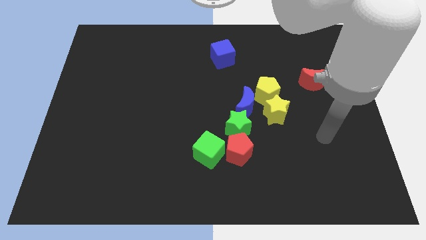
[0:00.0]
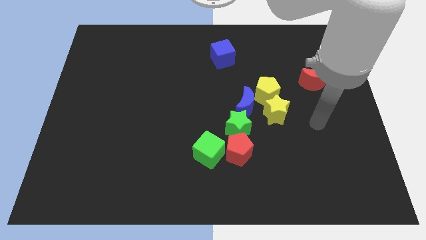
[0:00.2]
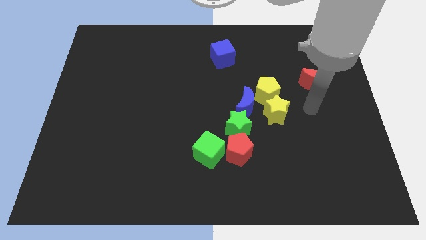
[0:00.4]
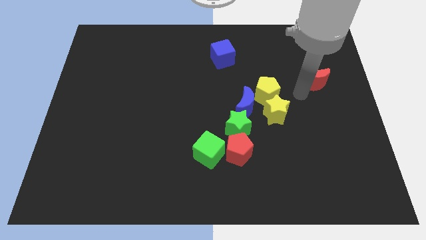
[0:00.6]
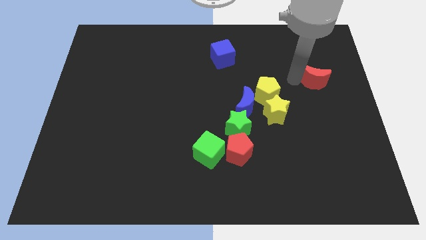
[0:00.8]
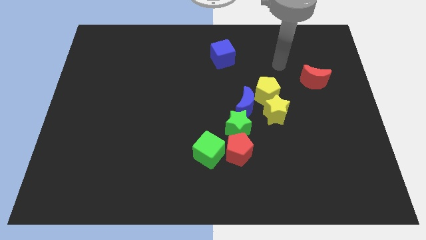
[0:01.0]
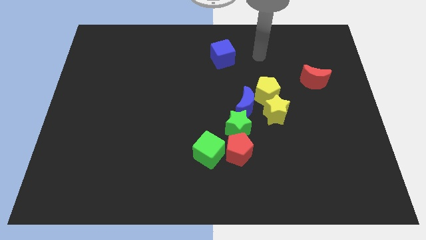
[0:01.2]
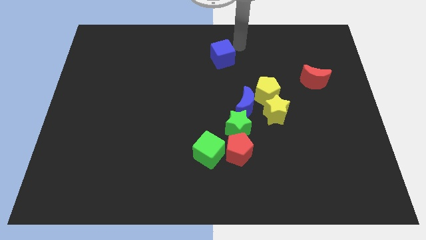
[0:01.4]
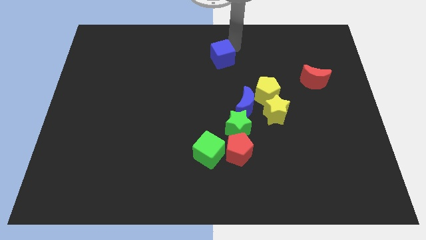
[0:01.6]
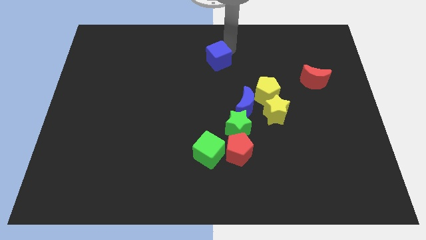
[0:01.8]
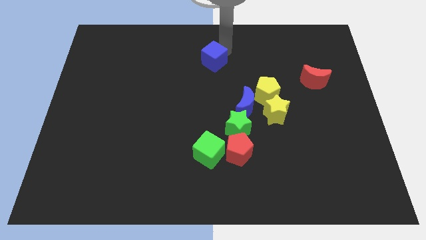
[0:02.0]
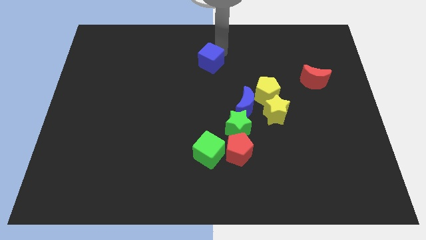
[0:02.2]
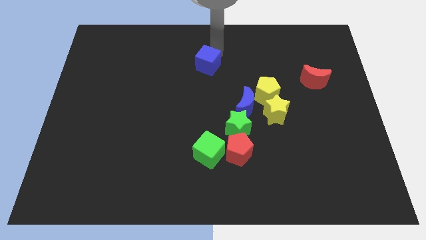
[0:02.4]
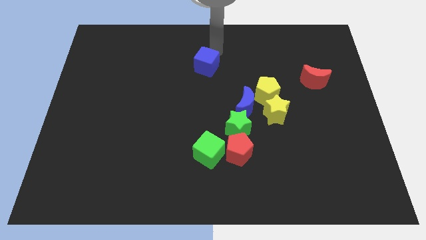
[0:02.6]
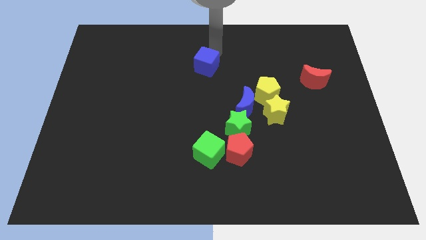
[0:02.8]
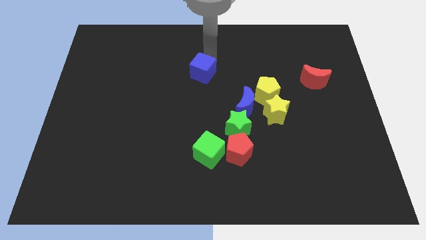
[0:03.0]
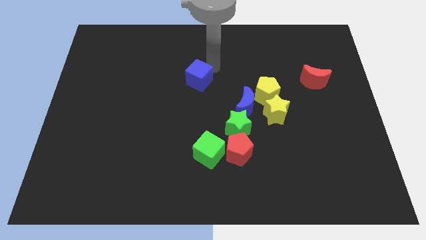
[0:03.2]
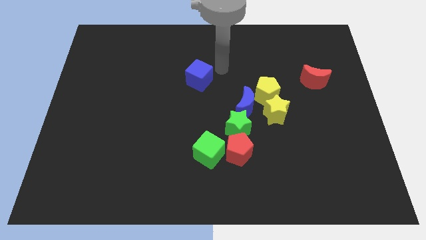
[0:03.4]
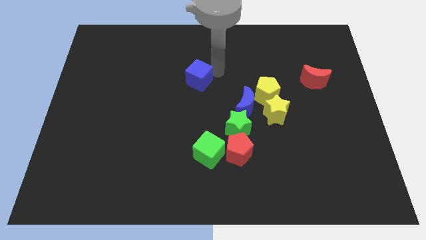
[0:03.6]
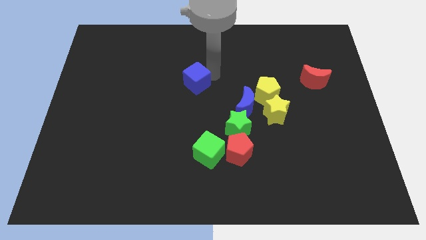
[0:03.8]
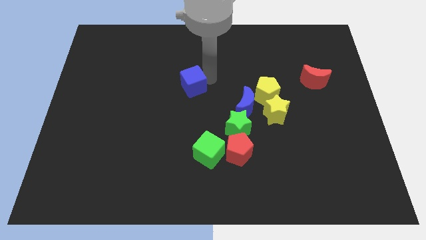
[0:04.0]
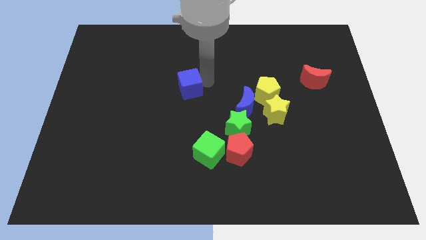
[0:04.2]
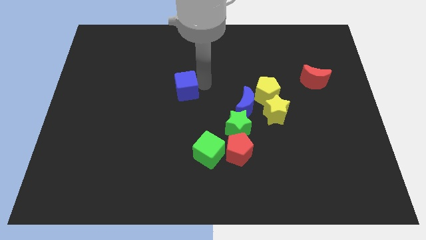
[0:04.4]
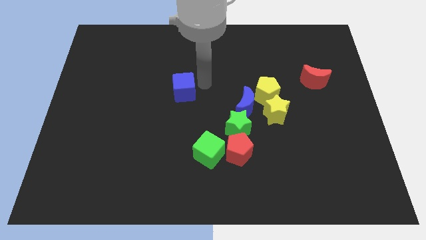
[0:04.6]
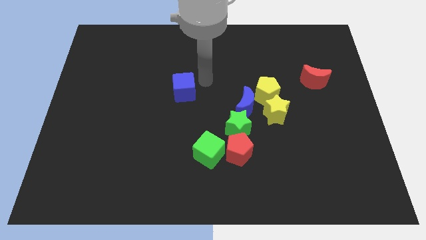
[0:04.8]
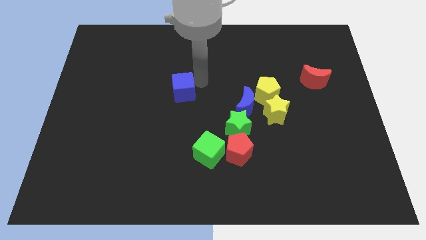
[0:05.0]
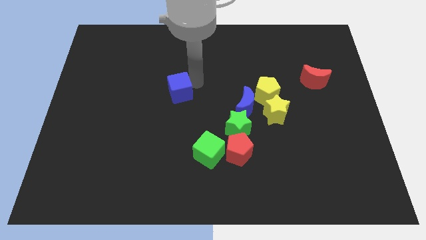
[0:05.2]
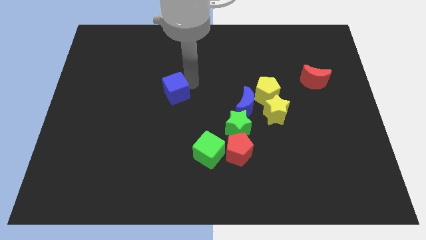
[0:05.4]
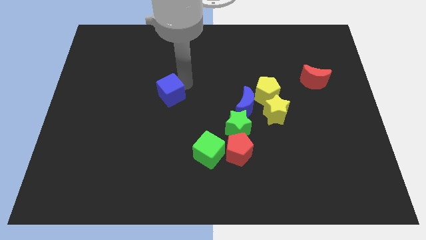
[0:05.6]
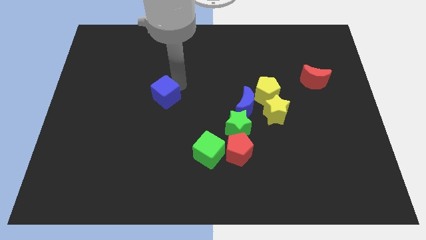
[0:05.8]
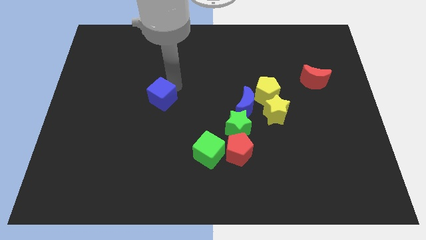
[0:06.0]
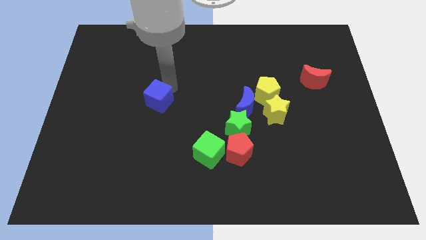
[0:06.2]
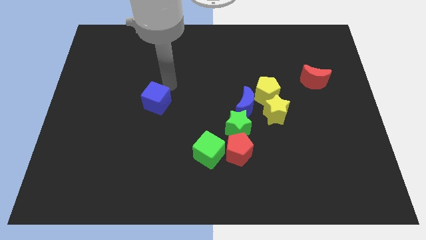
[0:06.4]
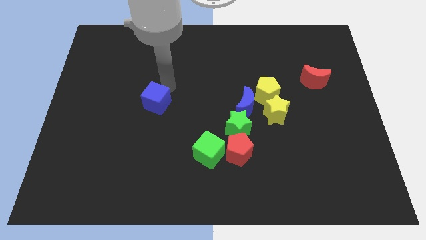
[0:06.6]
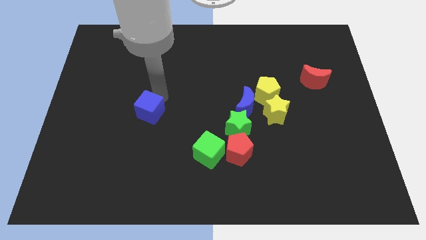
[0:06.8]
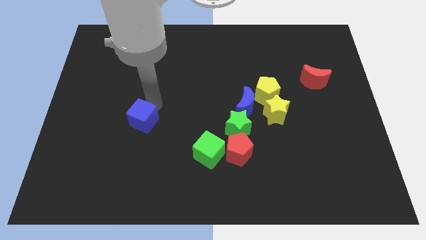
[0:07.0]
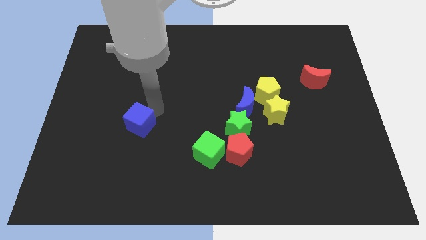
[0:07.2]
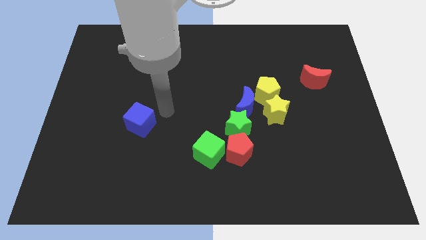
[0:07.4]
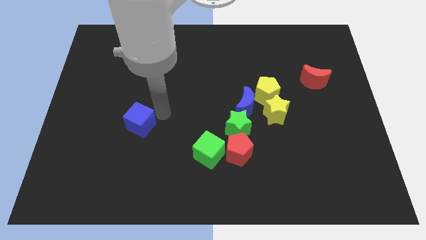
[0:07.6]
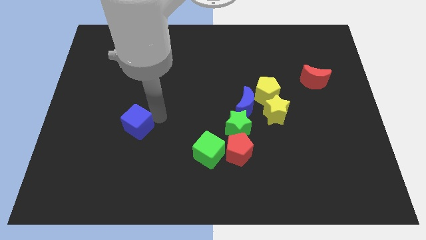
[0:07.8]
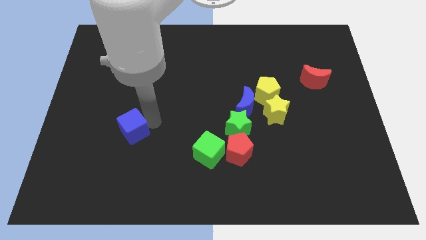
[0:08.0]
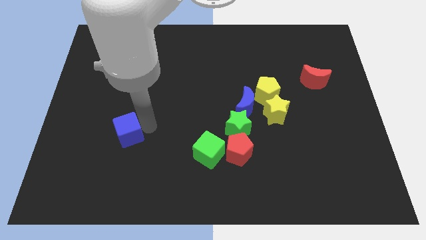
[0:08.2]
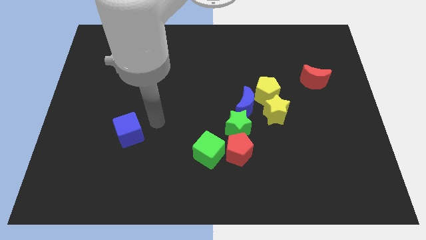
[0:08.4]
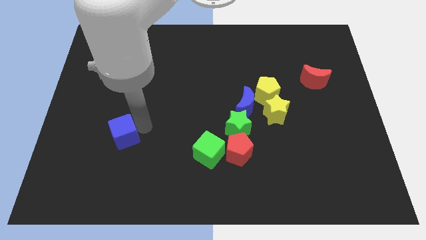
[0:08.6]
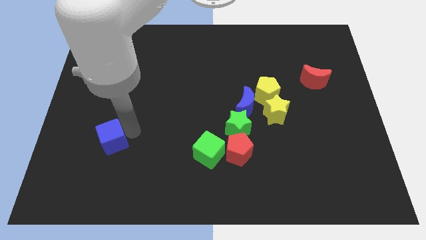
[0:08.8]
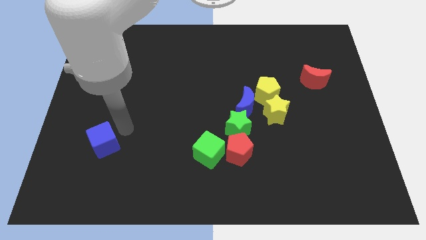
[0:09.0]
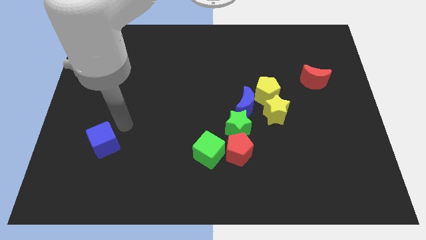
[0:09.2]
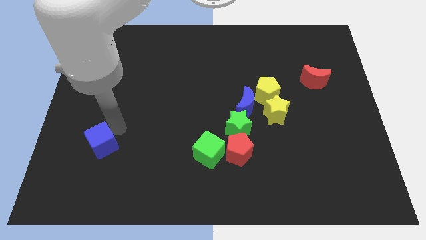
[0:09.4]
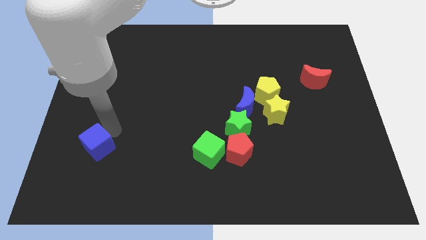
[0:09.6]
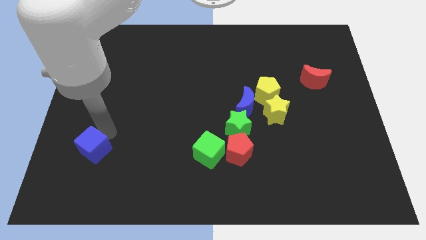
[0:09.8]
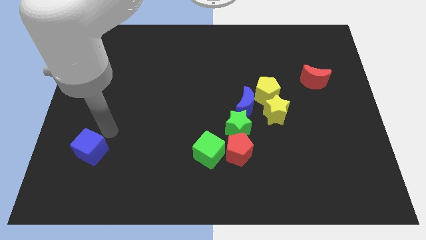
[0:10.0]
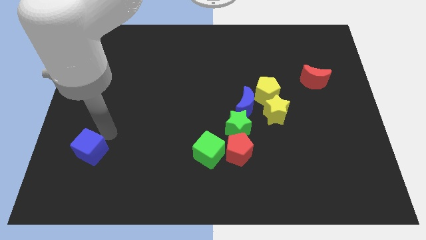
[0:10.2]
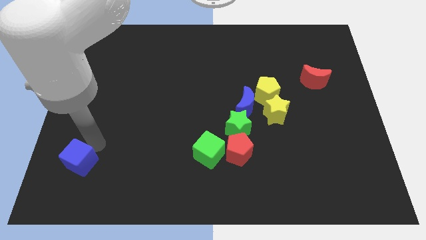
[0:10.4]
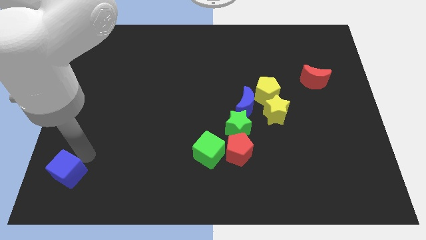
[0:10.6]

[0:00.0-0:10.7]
push the blue cube to the bottom left corner

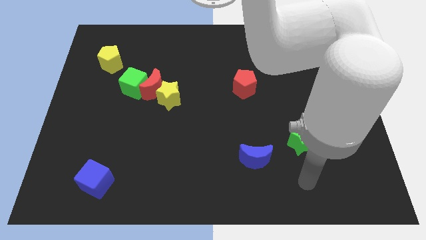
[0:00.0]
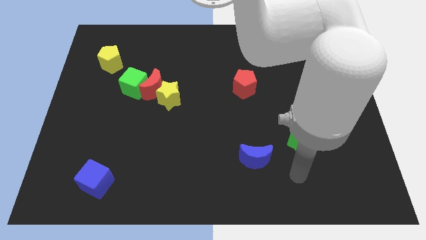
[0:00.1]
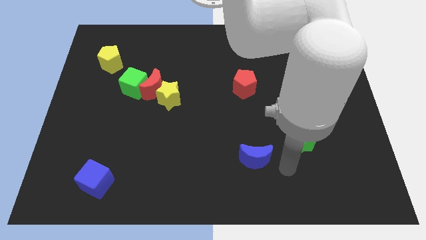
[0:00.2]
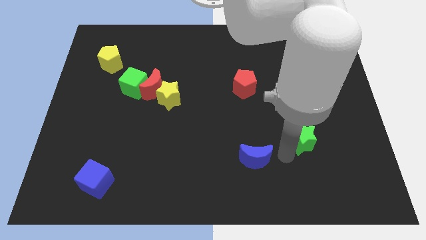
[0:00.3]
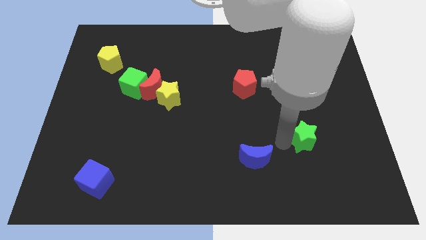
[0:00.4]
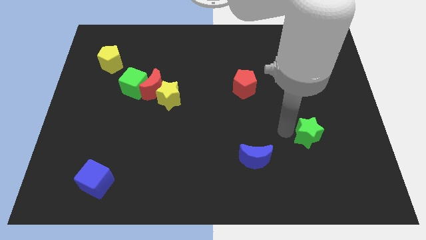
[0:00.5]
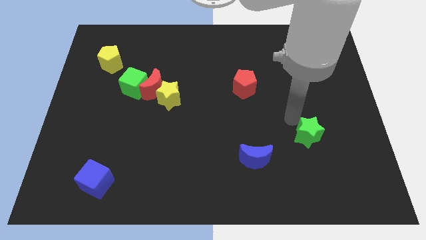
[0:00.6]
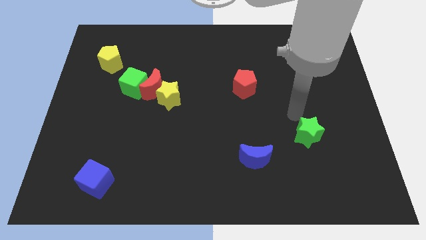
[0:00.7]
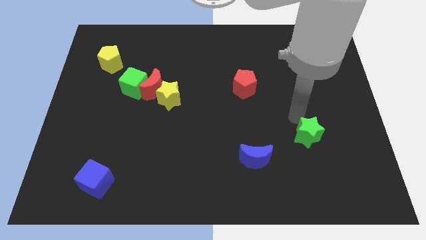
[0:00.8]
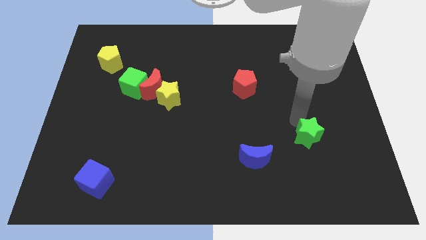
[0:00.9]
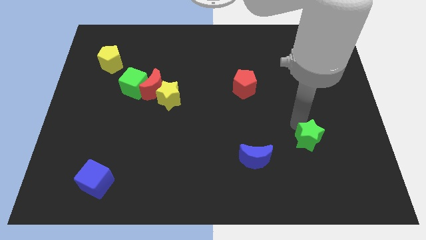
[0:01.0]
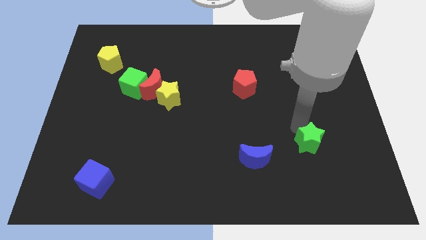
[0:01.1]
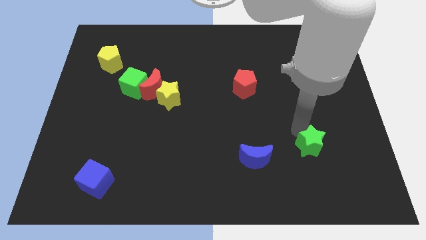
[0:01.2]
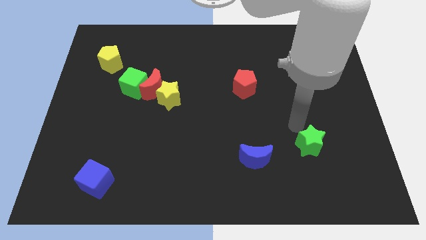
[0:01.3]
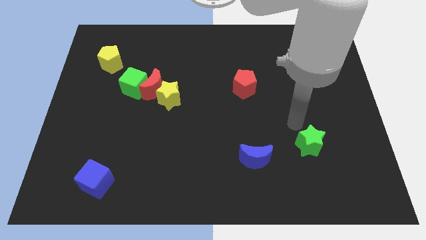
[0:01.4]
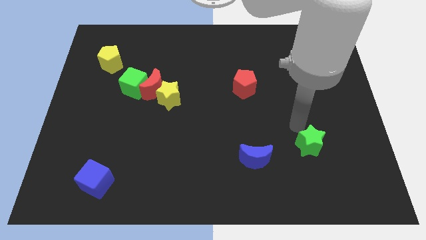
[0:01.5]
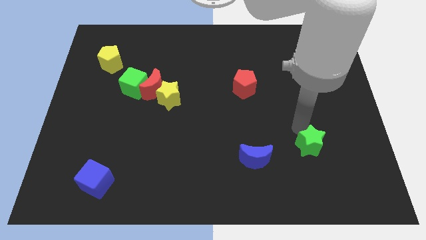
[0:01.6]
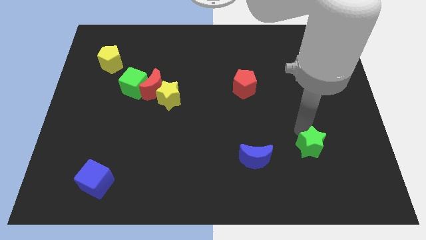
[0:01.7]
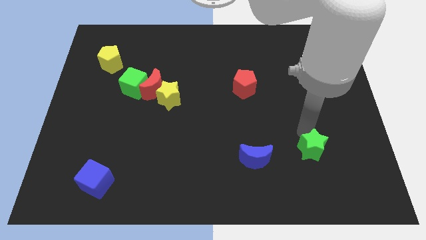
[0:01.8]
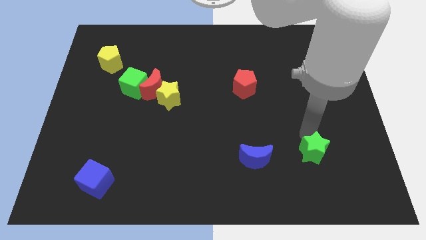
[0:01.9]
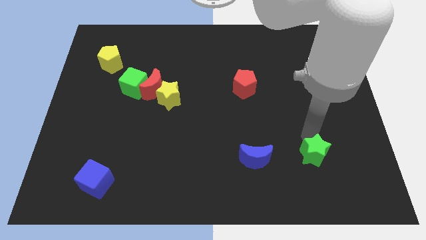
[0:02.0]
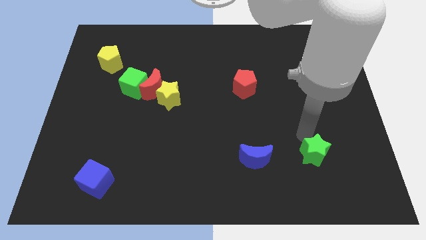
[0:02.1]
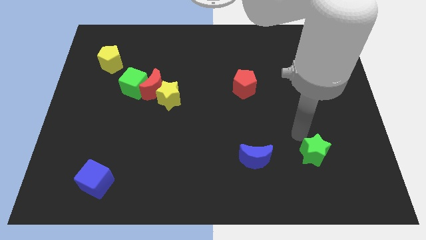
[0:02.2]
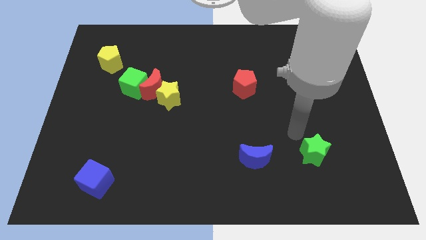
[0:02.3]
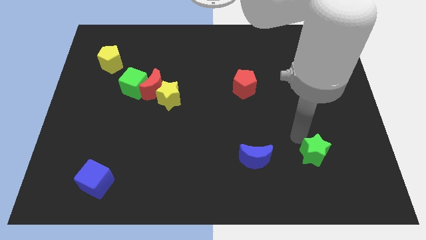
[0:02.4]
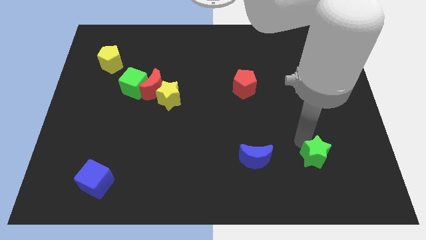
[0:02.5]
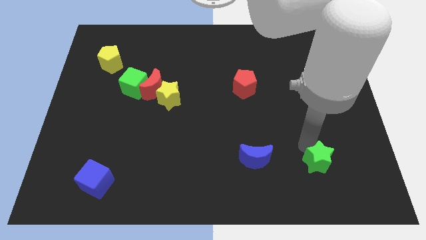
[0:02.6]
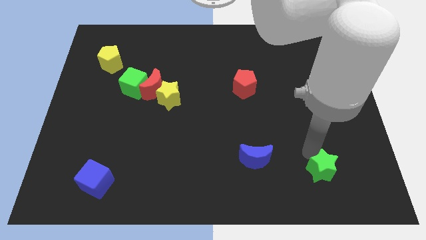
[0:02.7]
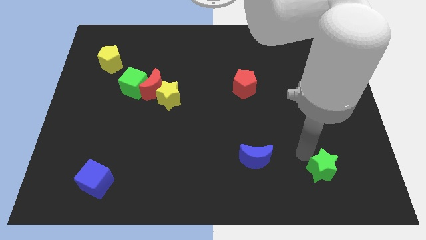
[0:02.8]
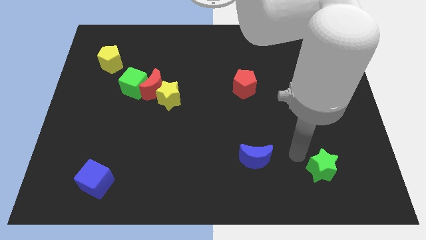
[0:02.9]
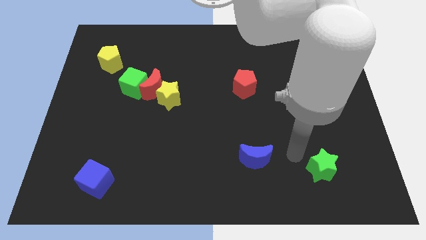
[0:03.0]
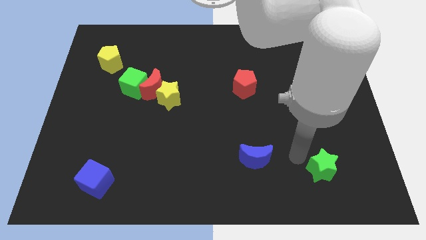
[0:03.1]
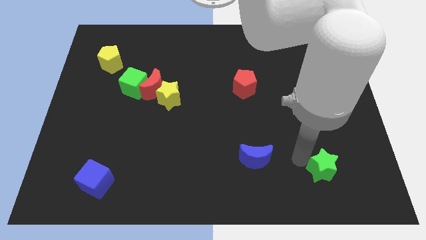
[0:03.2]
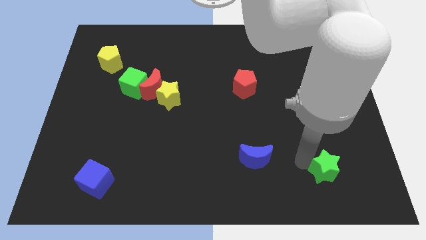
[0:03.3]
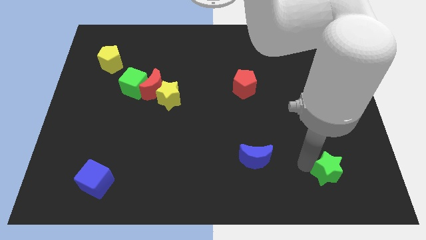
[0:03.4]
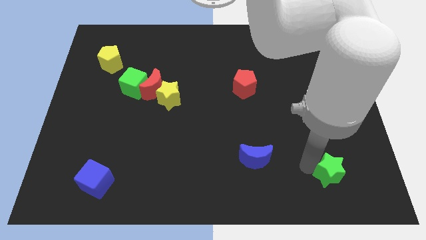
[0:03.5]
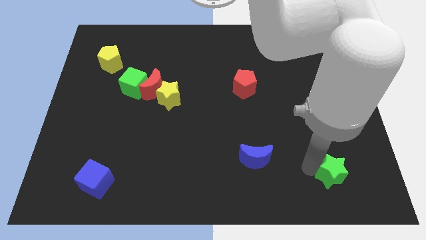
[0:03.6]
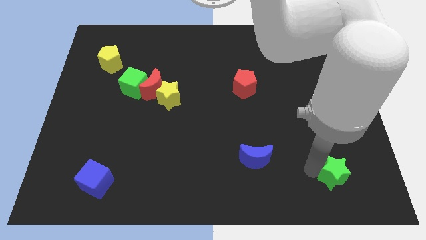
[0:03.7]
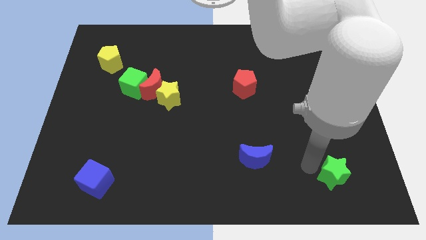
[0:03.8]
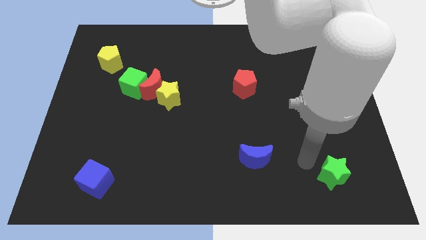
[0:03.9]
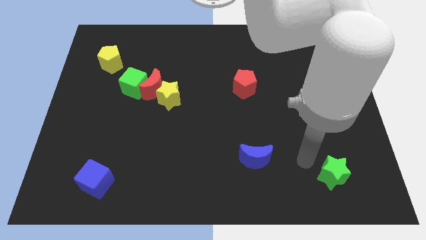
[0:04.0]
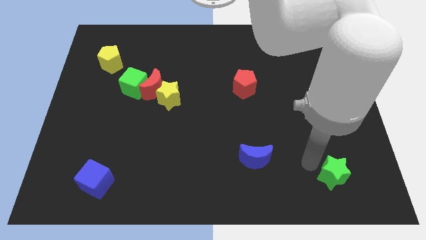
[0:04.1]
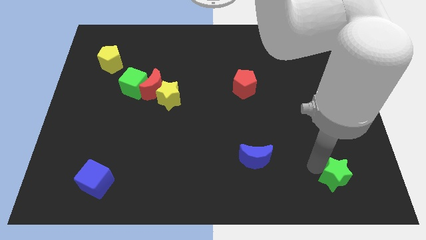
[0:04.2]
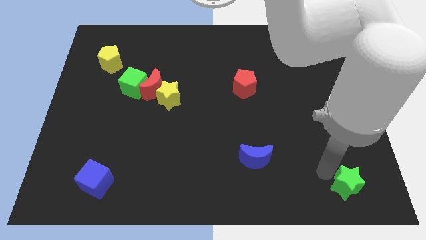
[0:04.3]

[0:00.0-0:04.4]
move the green star to the bottom right corner
